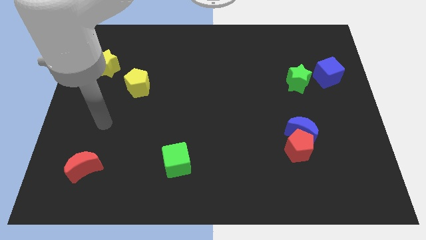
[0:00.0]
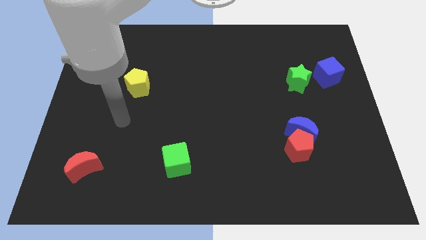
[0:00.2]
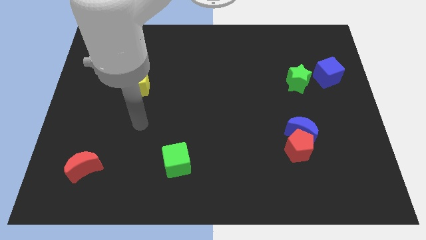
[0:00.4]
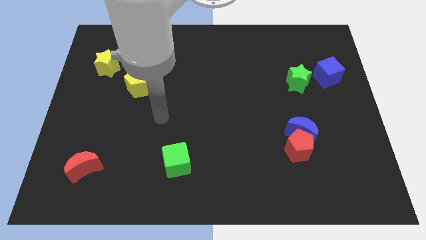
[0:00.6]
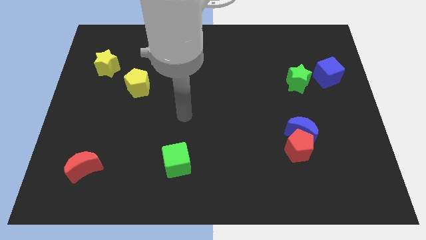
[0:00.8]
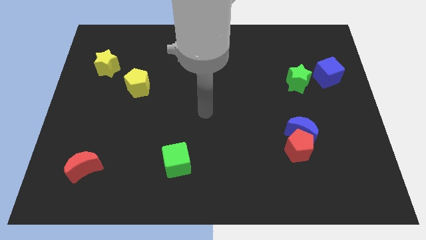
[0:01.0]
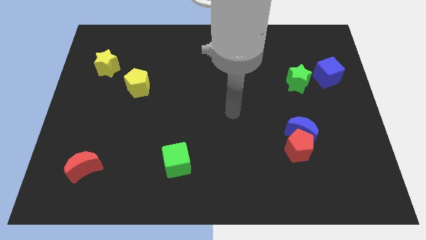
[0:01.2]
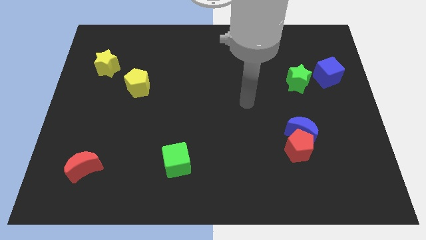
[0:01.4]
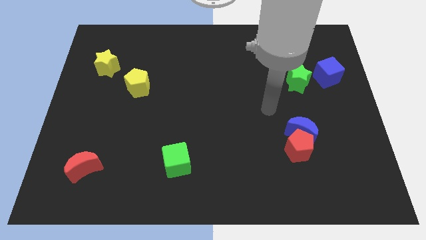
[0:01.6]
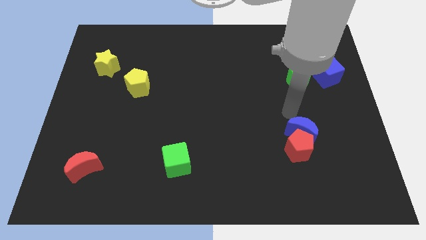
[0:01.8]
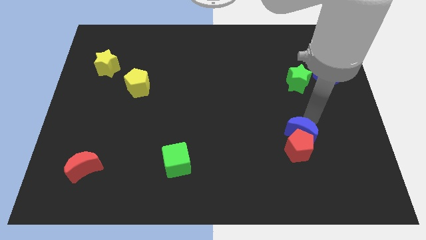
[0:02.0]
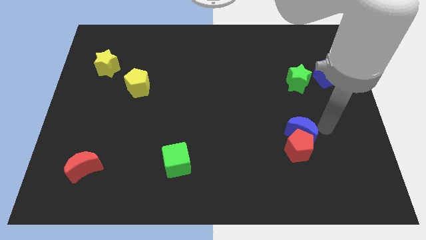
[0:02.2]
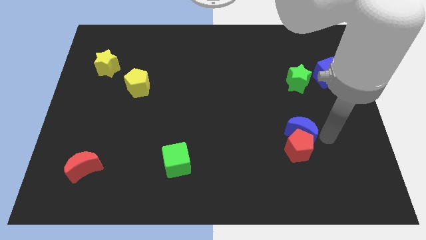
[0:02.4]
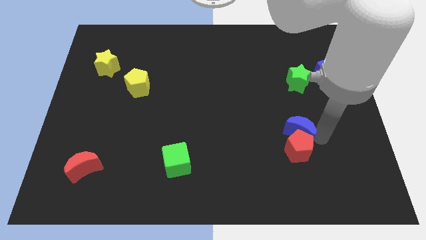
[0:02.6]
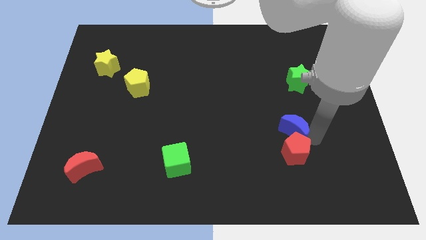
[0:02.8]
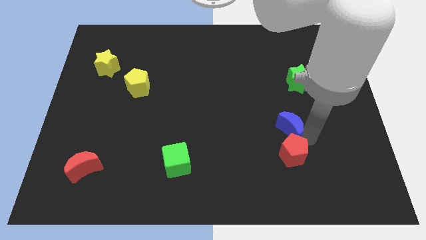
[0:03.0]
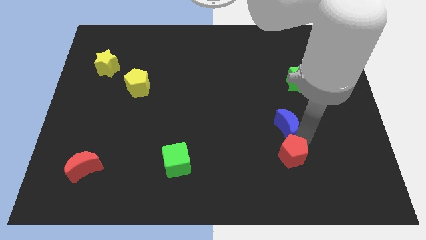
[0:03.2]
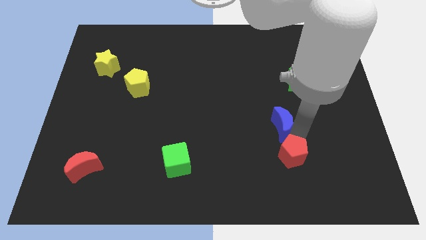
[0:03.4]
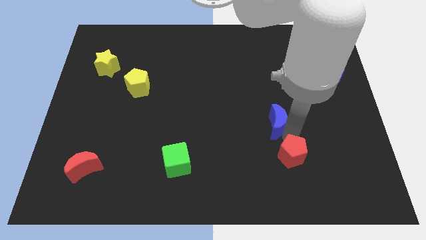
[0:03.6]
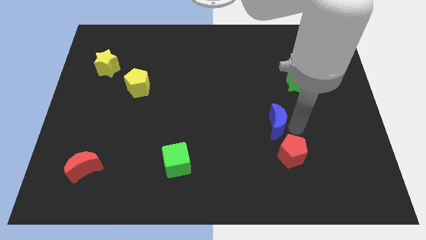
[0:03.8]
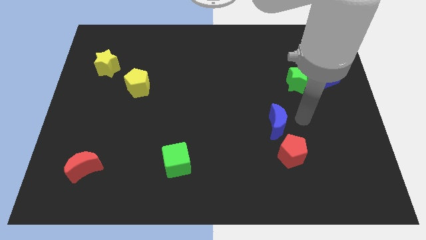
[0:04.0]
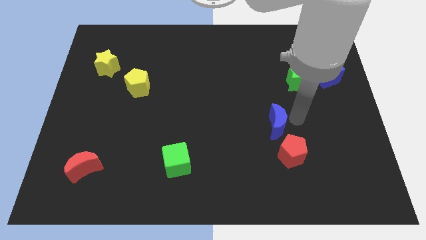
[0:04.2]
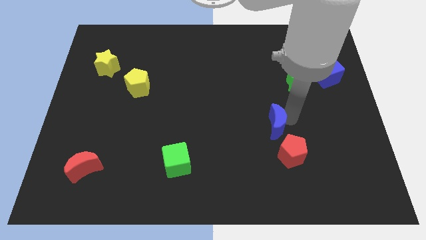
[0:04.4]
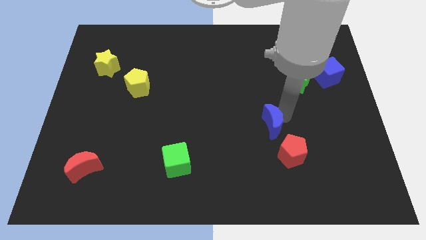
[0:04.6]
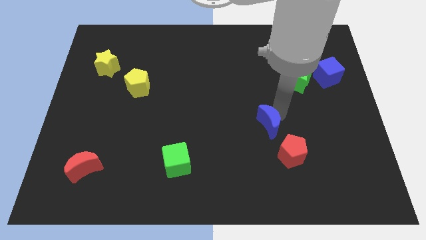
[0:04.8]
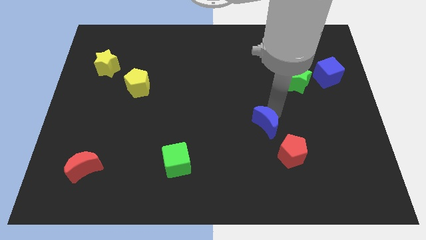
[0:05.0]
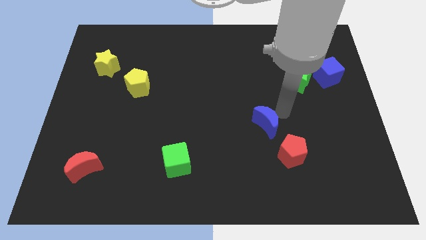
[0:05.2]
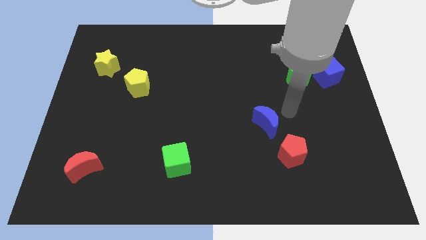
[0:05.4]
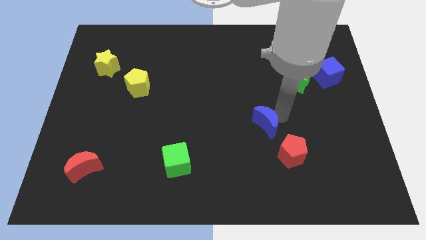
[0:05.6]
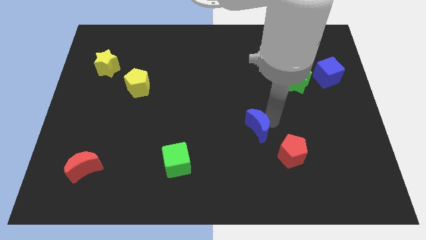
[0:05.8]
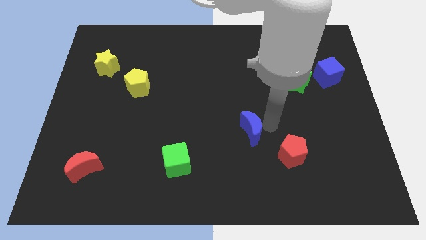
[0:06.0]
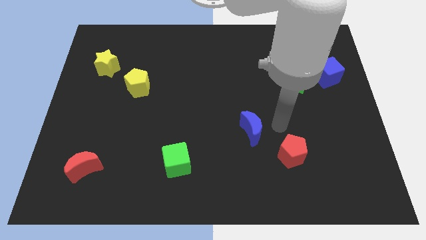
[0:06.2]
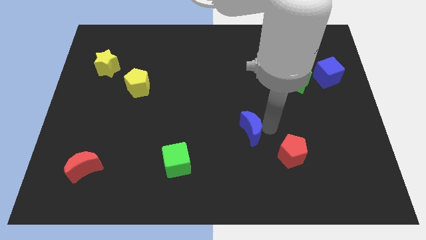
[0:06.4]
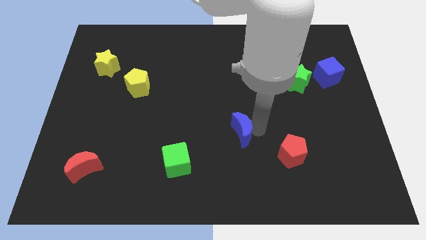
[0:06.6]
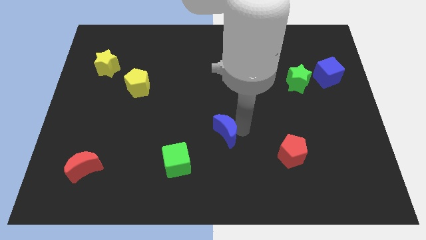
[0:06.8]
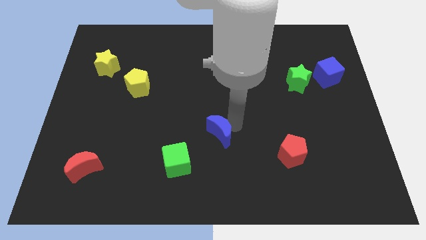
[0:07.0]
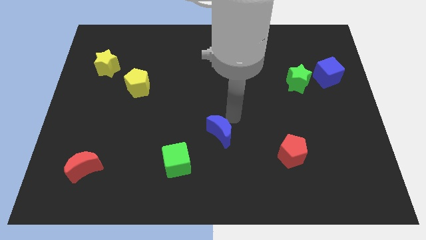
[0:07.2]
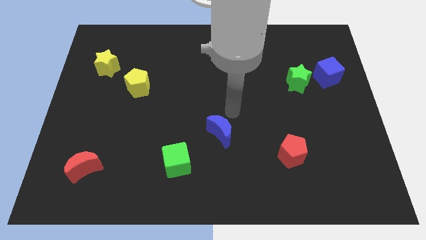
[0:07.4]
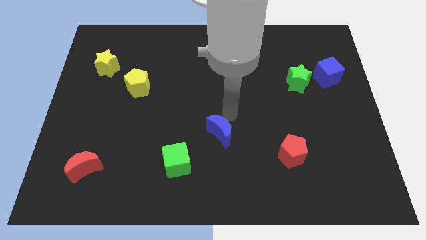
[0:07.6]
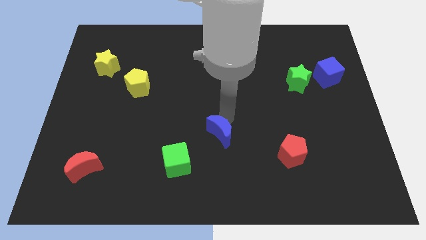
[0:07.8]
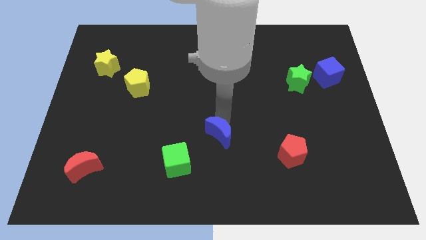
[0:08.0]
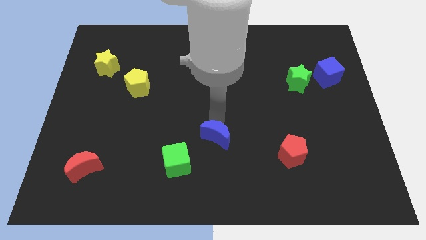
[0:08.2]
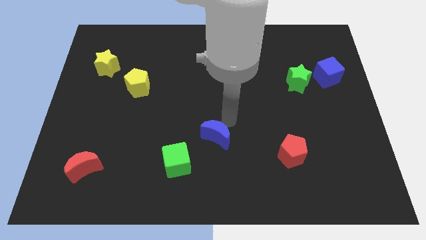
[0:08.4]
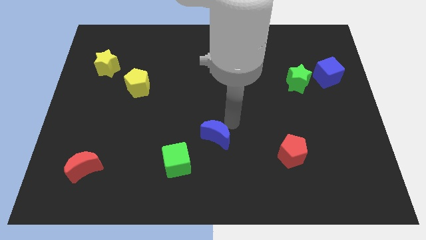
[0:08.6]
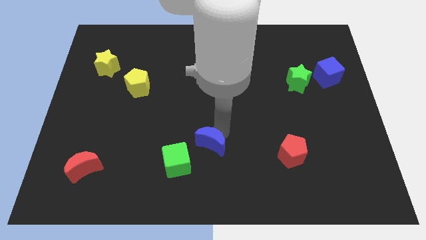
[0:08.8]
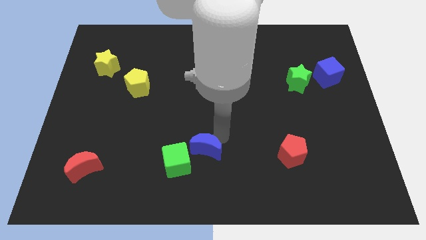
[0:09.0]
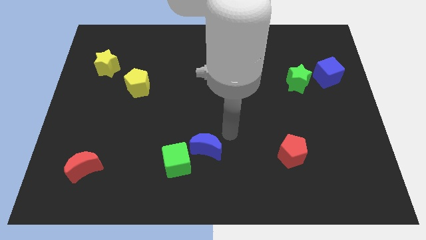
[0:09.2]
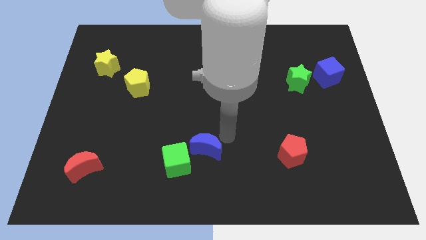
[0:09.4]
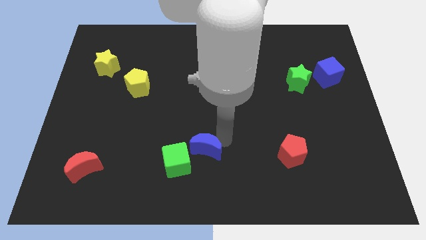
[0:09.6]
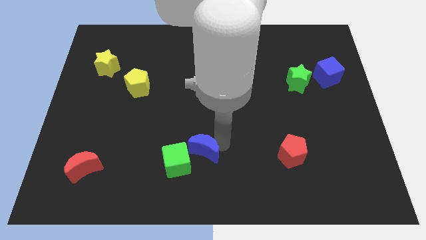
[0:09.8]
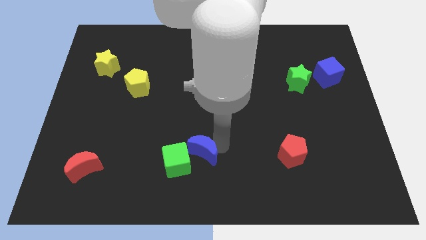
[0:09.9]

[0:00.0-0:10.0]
move the blue moon next to the green cube

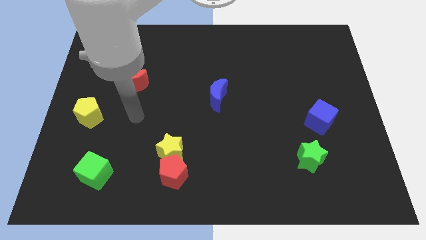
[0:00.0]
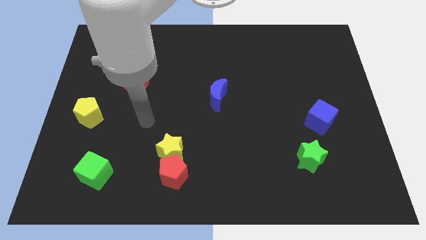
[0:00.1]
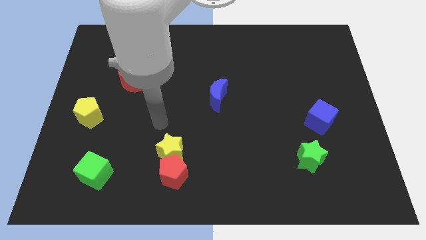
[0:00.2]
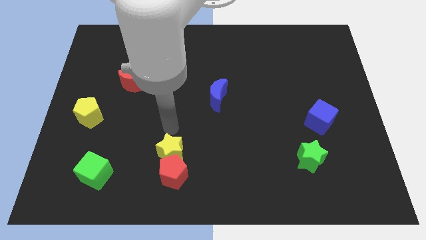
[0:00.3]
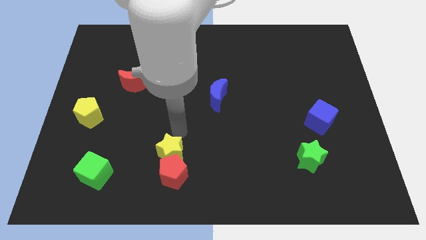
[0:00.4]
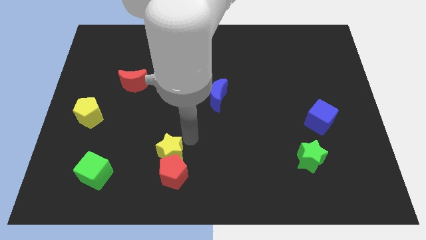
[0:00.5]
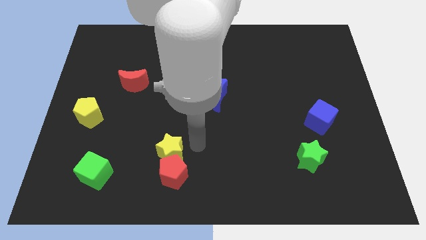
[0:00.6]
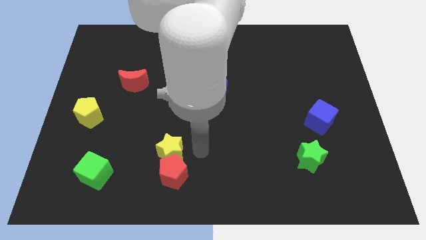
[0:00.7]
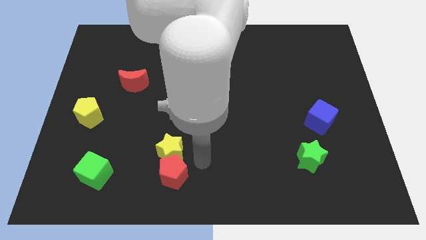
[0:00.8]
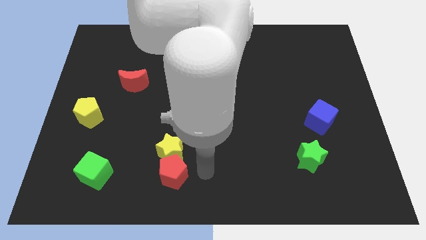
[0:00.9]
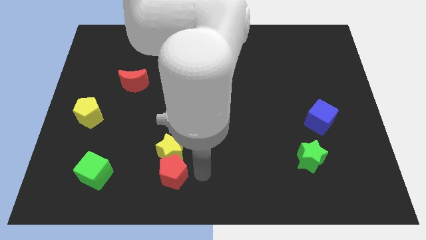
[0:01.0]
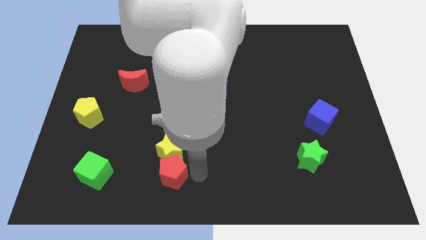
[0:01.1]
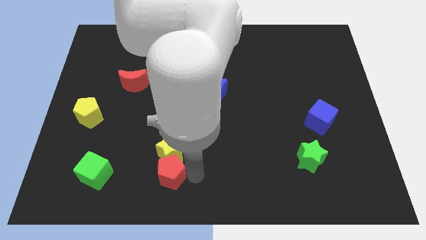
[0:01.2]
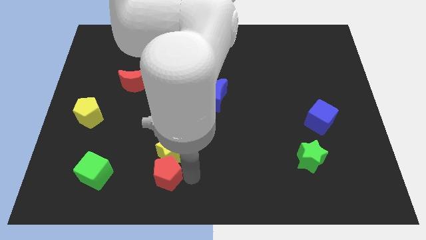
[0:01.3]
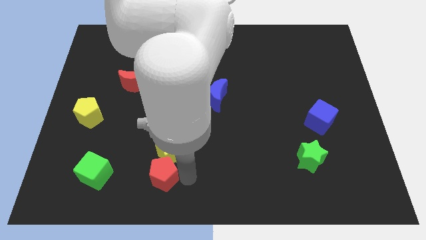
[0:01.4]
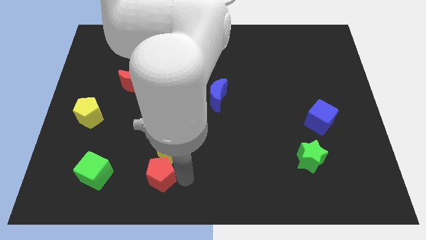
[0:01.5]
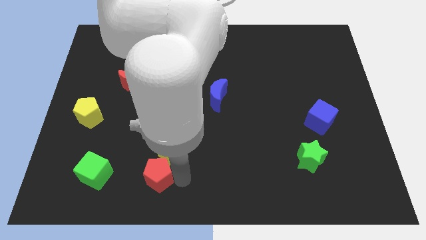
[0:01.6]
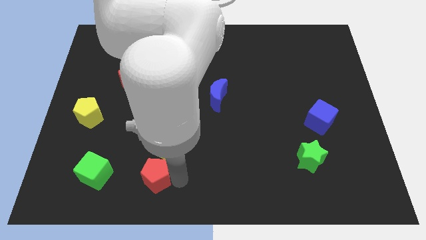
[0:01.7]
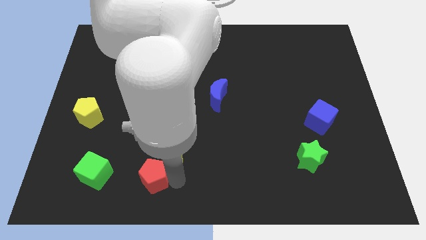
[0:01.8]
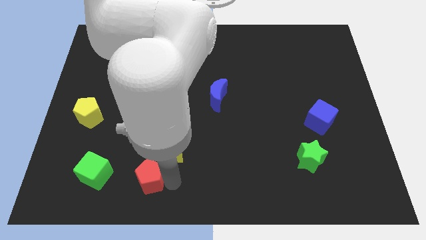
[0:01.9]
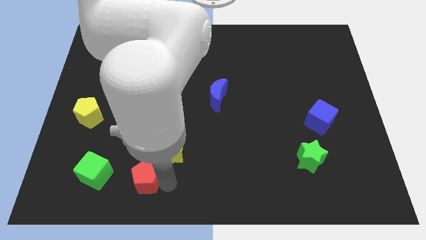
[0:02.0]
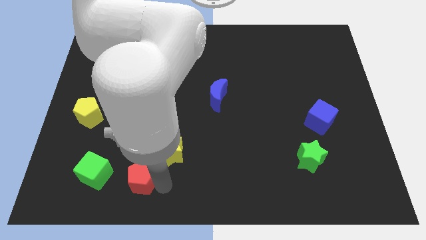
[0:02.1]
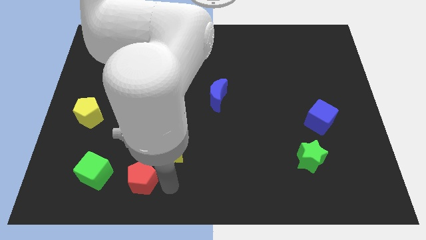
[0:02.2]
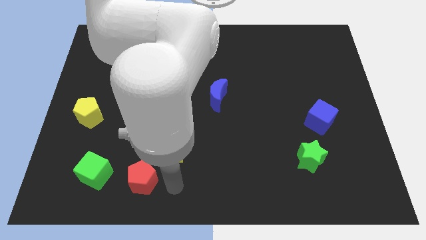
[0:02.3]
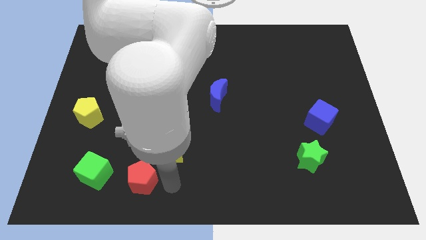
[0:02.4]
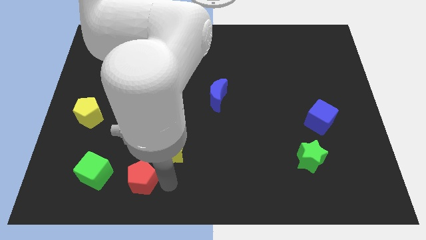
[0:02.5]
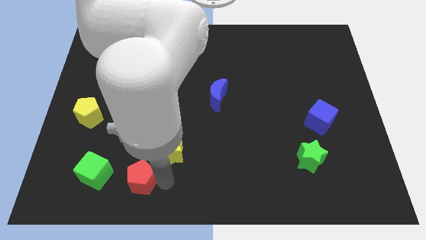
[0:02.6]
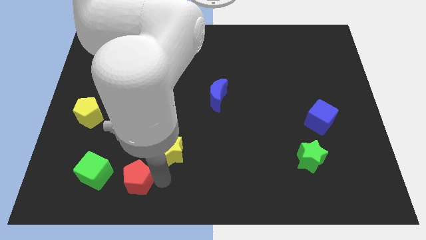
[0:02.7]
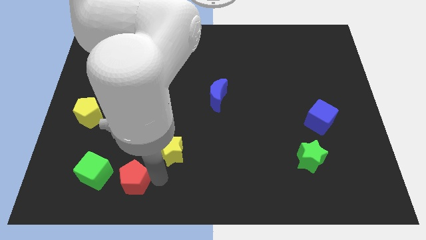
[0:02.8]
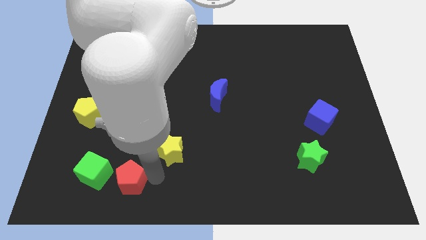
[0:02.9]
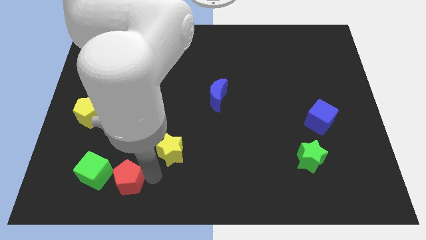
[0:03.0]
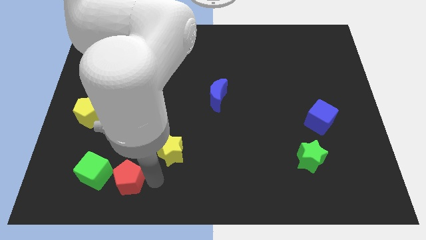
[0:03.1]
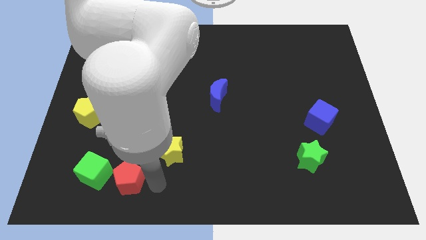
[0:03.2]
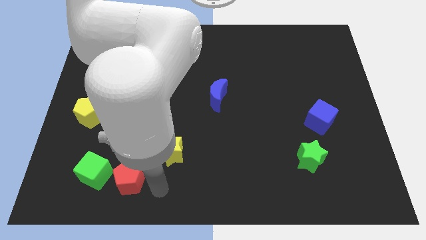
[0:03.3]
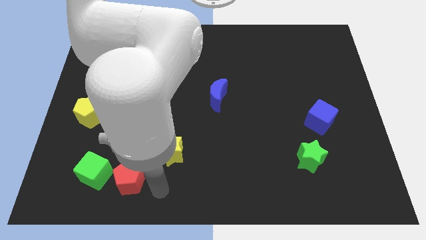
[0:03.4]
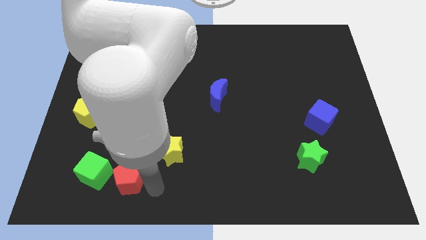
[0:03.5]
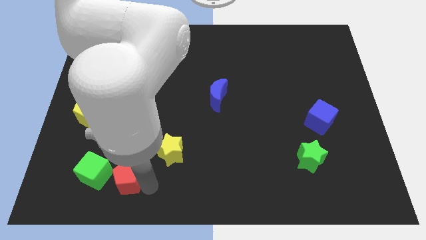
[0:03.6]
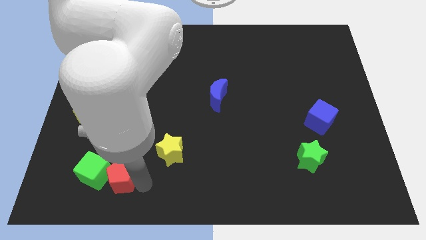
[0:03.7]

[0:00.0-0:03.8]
put the red pentagon next to the green cube
